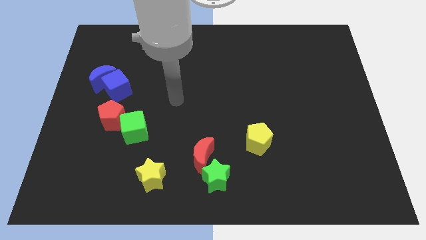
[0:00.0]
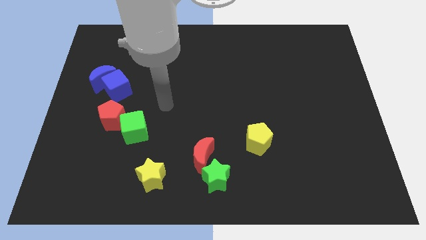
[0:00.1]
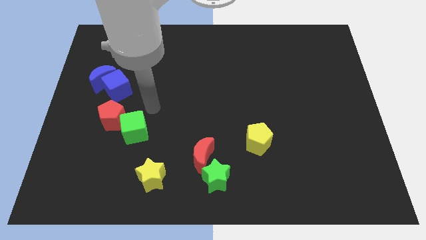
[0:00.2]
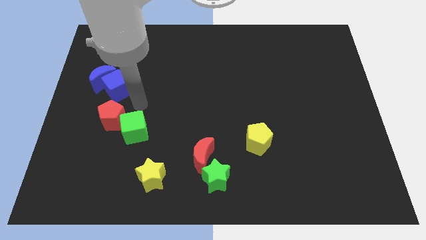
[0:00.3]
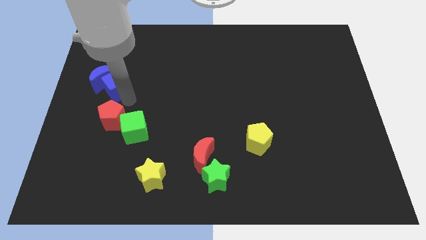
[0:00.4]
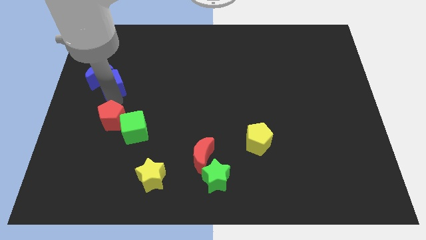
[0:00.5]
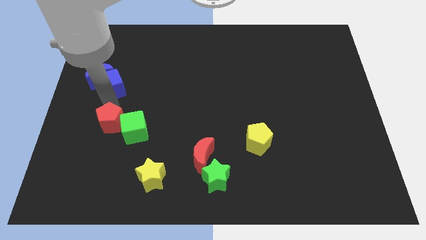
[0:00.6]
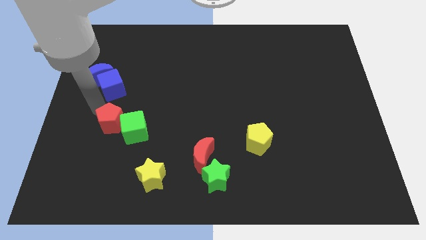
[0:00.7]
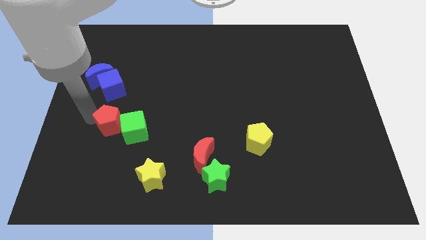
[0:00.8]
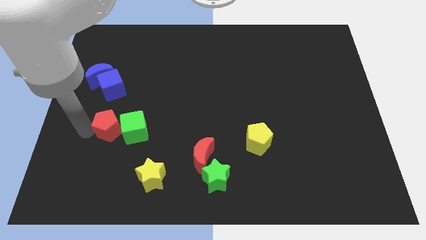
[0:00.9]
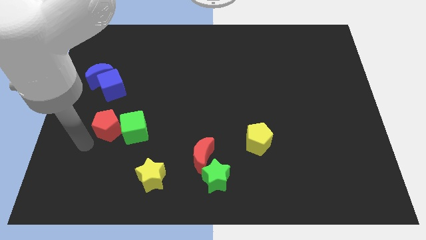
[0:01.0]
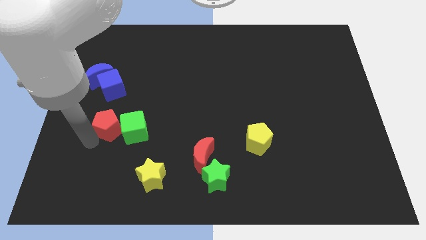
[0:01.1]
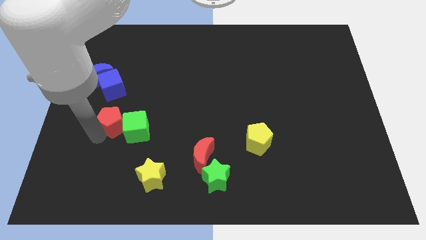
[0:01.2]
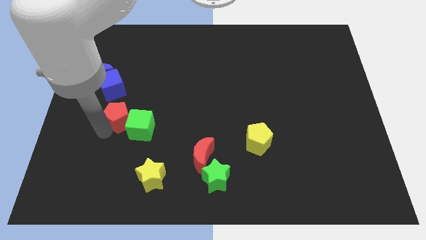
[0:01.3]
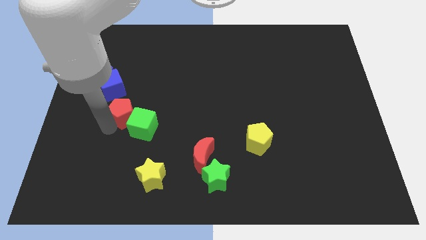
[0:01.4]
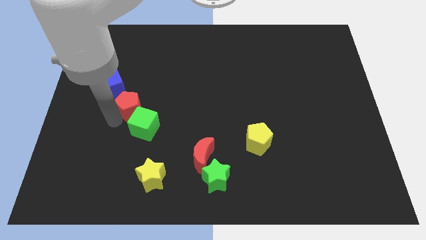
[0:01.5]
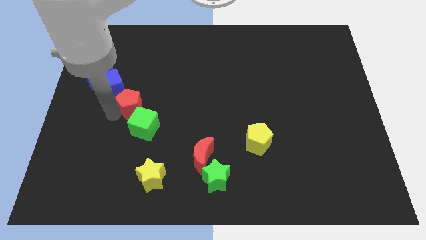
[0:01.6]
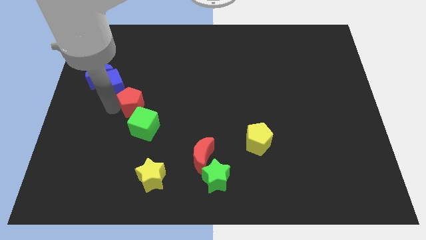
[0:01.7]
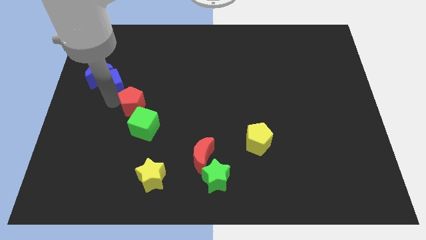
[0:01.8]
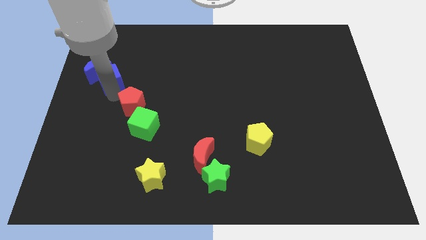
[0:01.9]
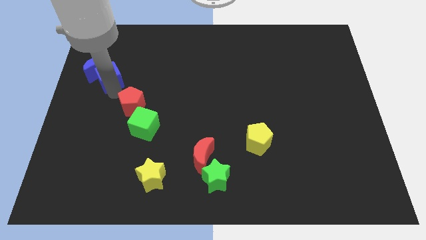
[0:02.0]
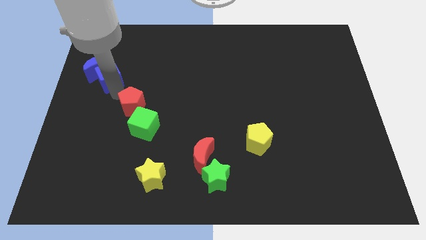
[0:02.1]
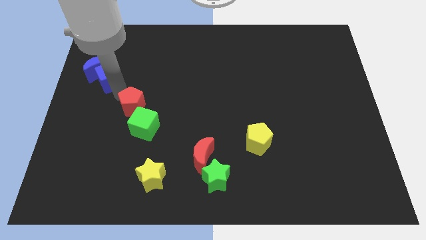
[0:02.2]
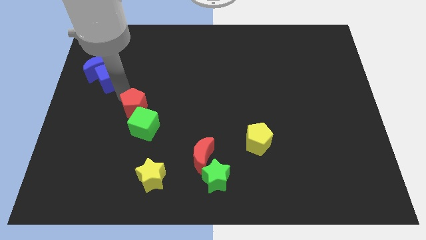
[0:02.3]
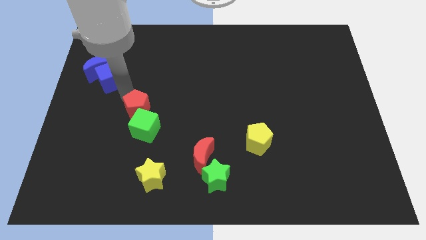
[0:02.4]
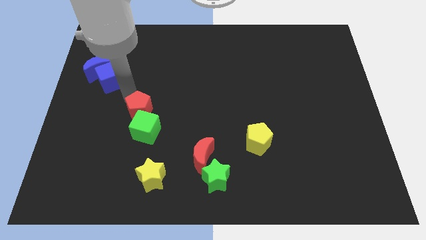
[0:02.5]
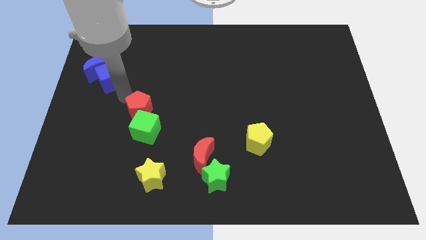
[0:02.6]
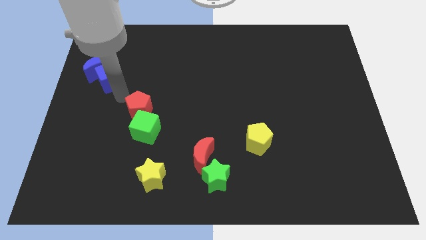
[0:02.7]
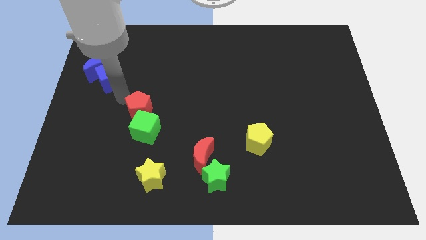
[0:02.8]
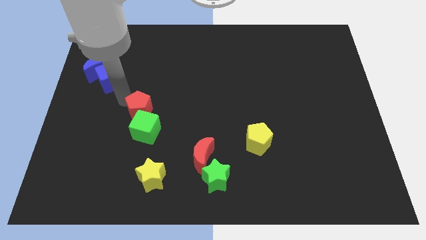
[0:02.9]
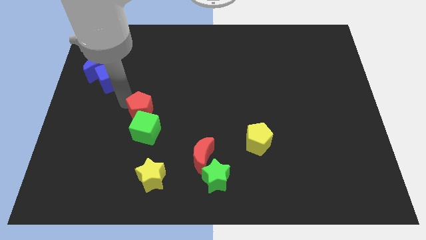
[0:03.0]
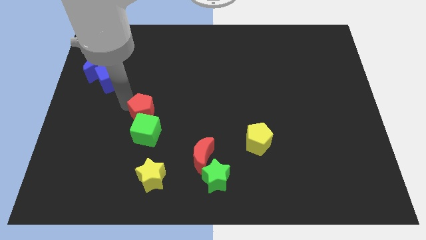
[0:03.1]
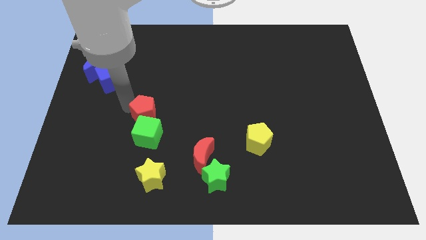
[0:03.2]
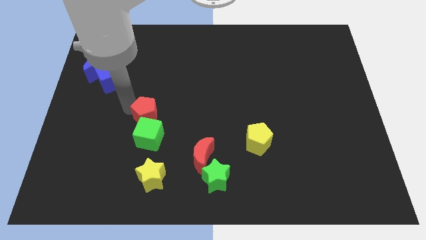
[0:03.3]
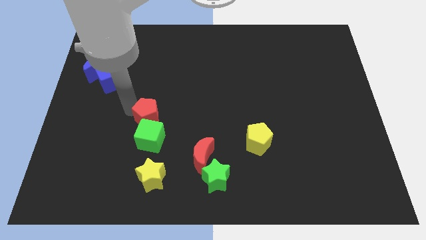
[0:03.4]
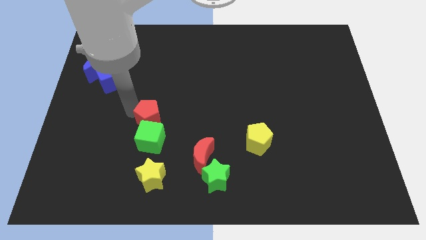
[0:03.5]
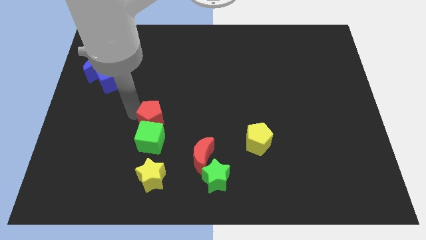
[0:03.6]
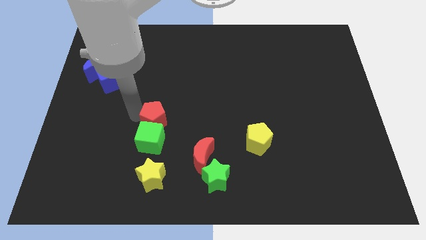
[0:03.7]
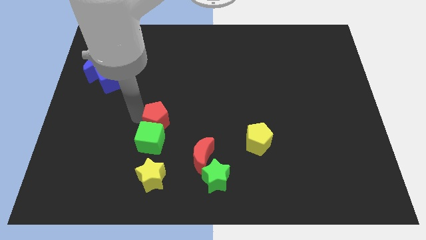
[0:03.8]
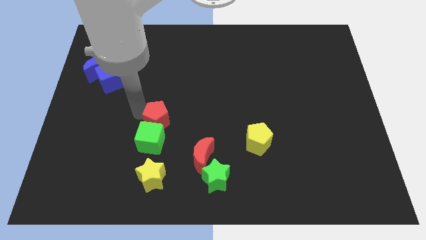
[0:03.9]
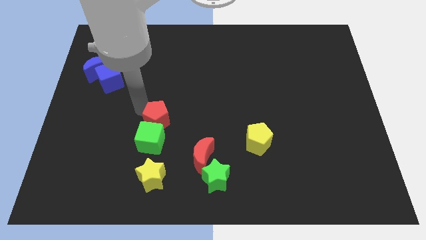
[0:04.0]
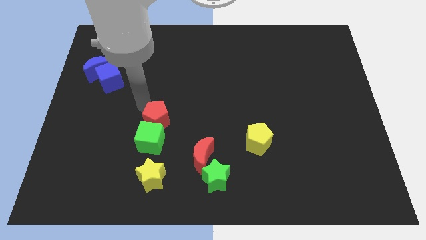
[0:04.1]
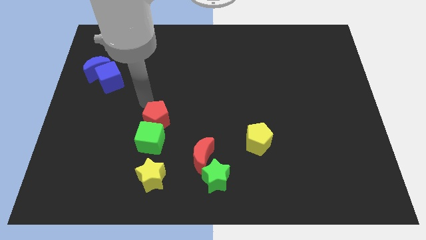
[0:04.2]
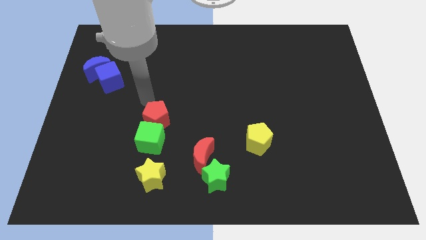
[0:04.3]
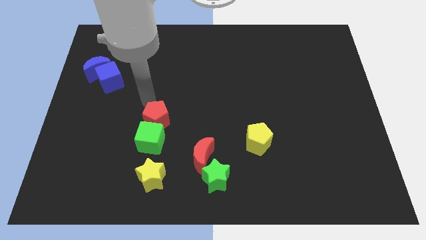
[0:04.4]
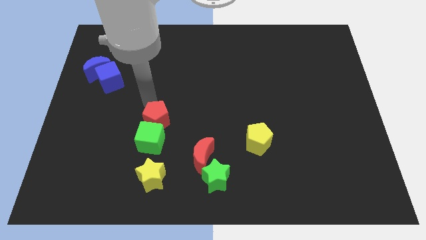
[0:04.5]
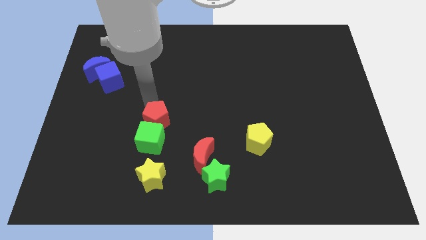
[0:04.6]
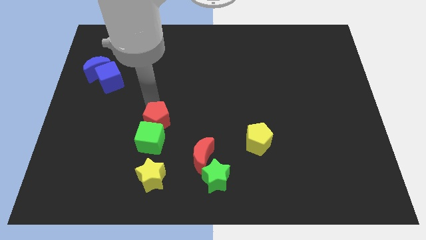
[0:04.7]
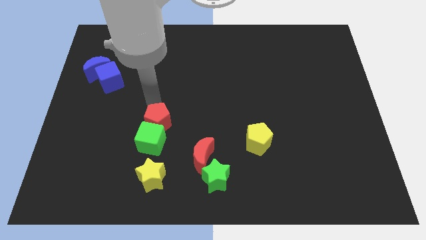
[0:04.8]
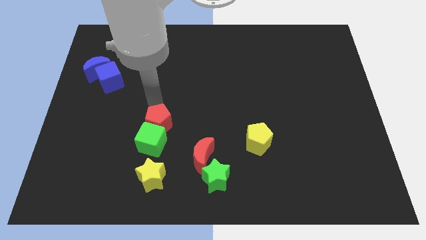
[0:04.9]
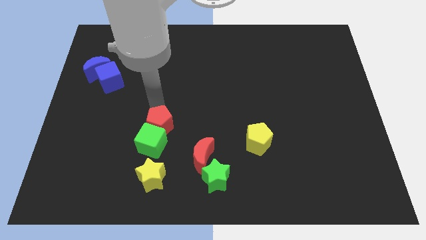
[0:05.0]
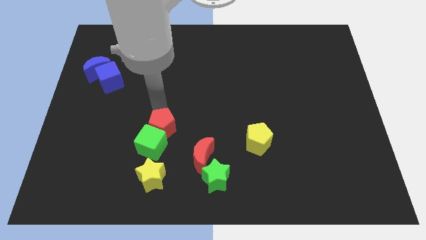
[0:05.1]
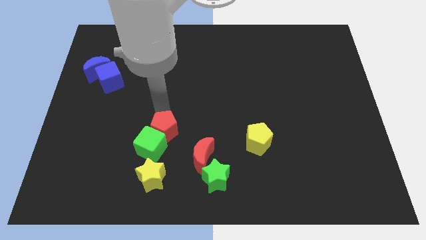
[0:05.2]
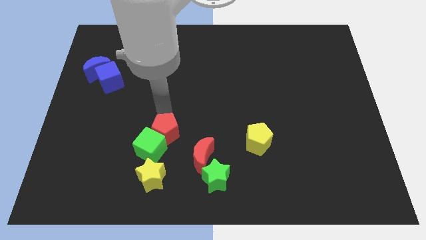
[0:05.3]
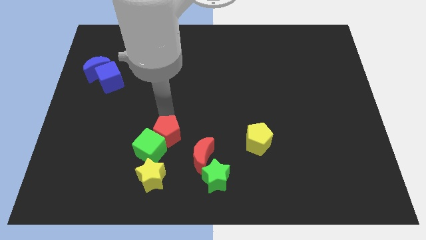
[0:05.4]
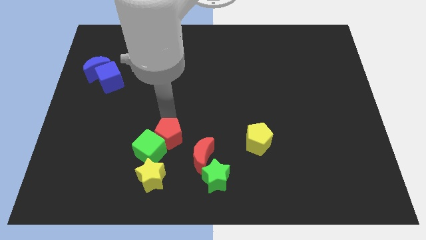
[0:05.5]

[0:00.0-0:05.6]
push the red pentagon to the top right side of the yellow star

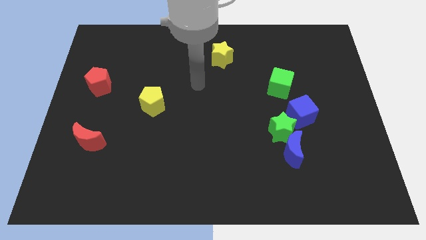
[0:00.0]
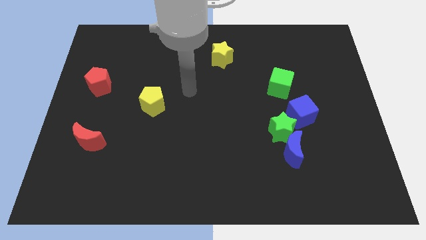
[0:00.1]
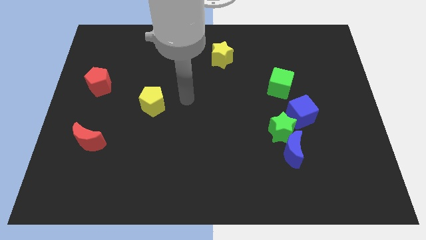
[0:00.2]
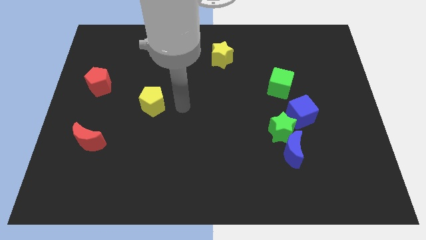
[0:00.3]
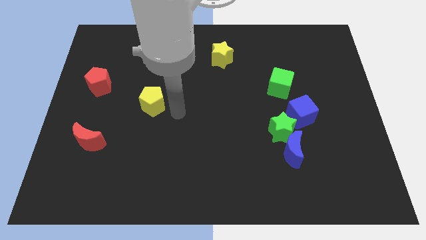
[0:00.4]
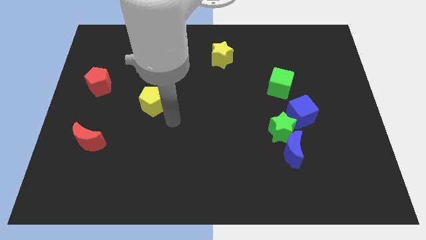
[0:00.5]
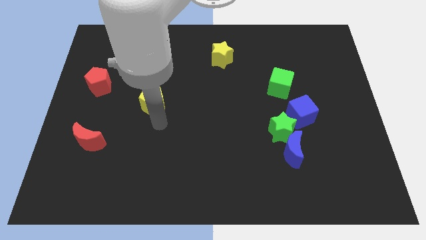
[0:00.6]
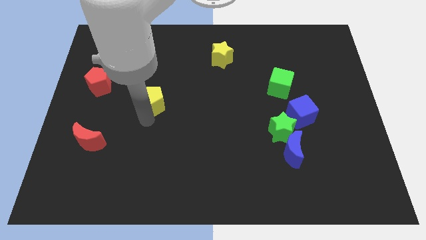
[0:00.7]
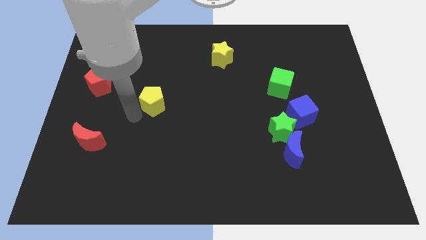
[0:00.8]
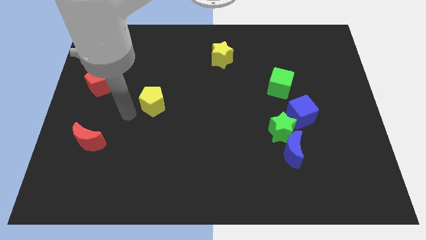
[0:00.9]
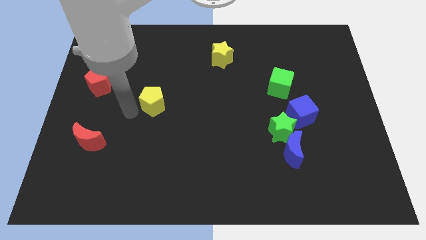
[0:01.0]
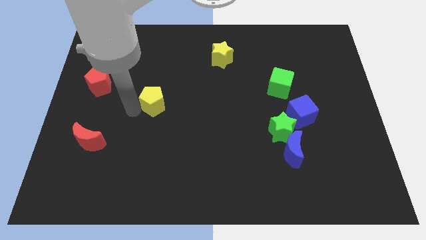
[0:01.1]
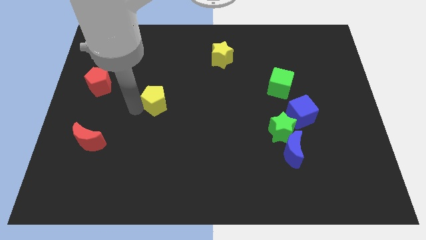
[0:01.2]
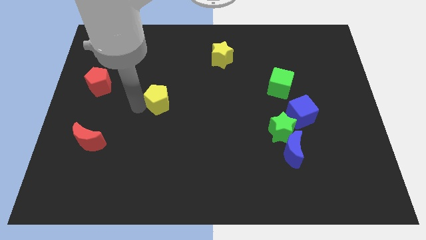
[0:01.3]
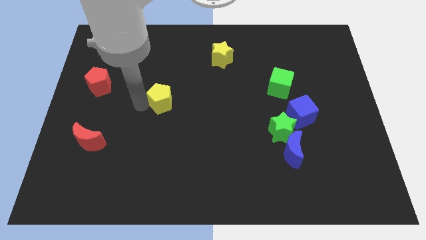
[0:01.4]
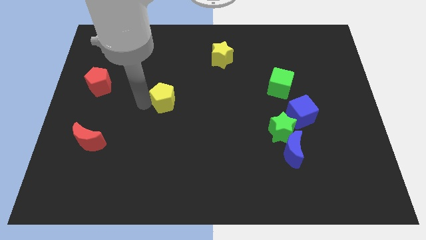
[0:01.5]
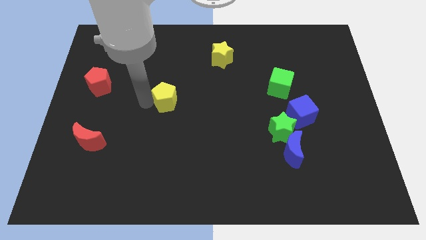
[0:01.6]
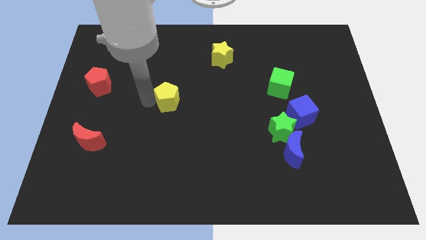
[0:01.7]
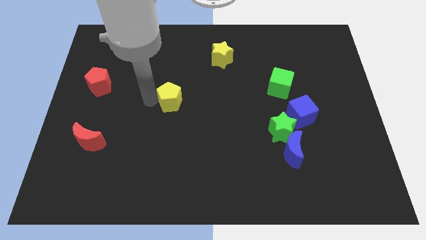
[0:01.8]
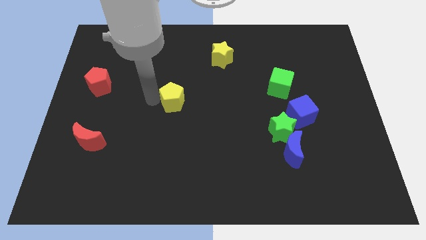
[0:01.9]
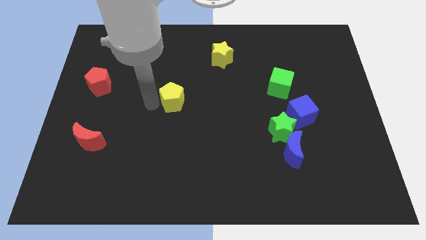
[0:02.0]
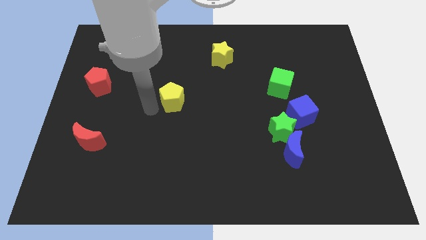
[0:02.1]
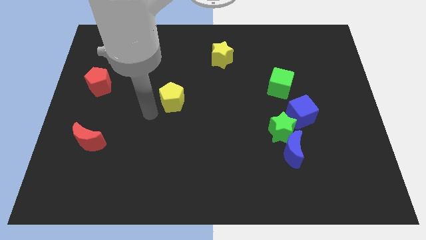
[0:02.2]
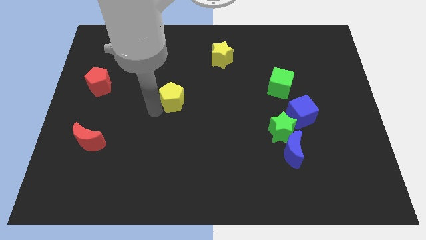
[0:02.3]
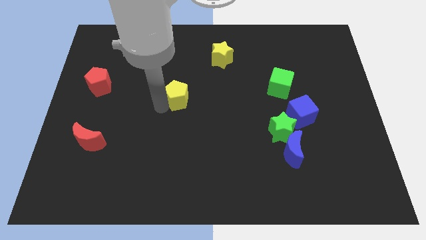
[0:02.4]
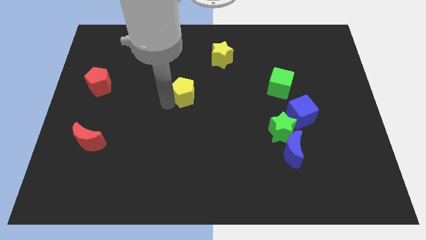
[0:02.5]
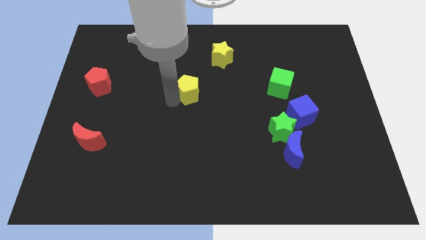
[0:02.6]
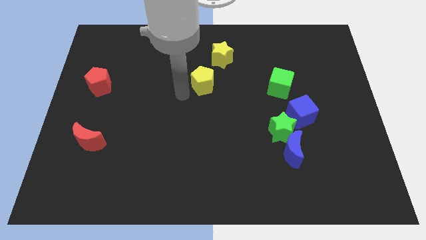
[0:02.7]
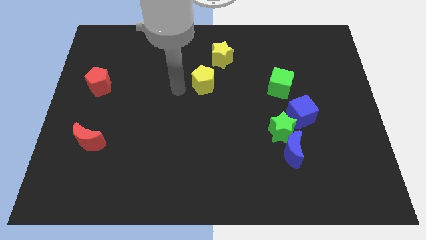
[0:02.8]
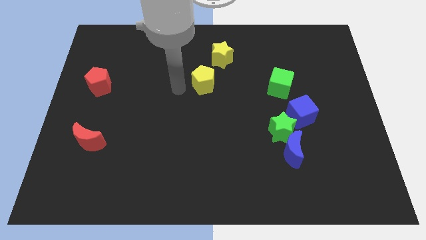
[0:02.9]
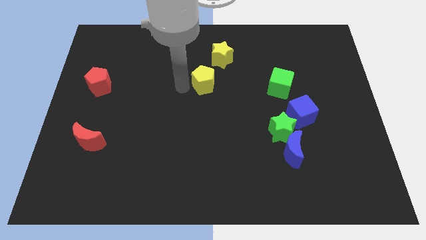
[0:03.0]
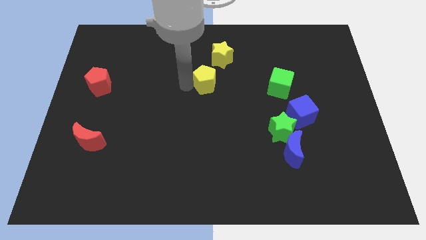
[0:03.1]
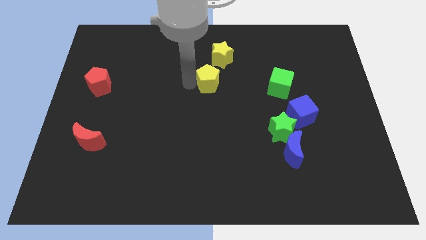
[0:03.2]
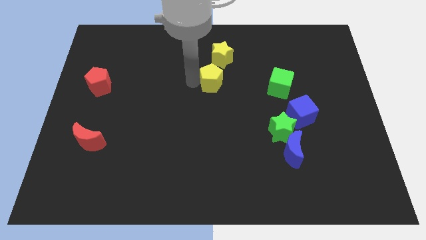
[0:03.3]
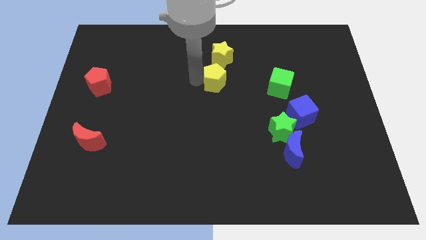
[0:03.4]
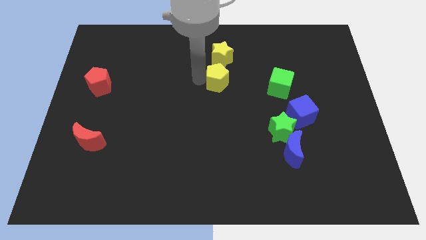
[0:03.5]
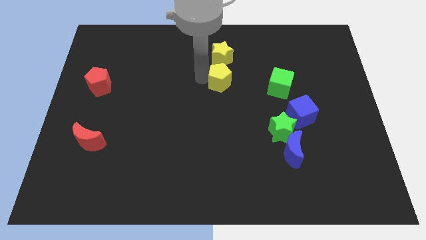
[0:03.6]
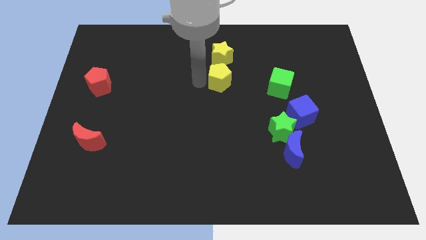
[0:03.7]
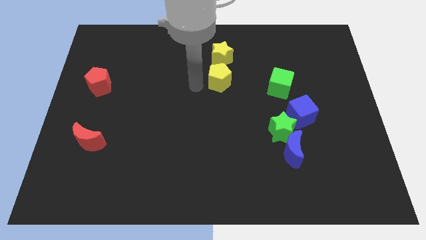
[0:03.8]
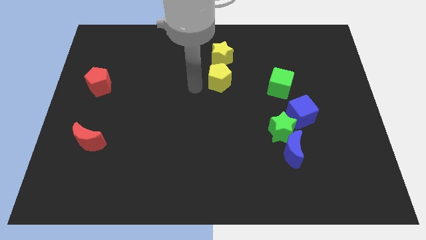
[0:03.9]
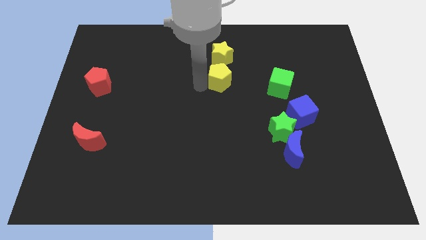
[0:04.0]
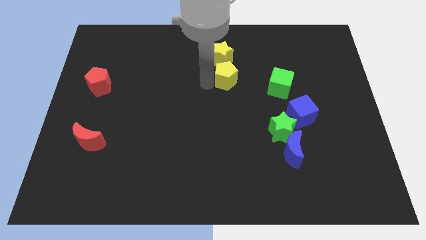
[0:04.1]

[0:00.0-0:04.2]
push the yellow pentagon to the bottom right of the yellow star
